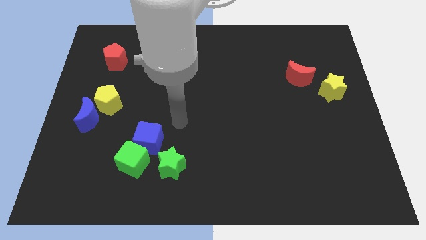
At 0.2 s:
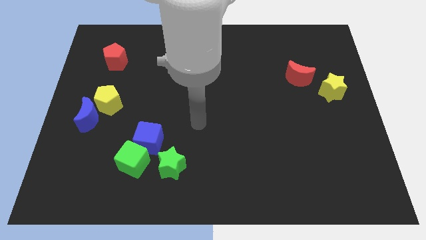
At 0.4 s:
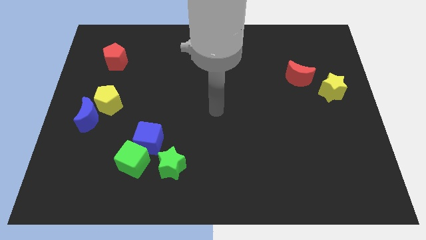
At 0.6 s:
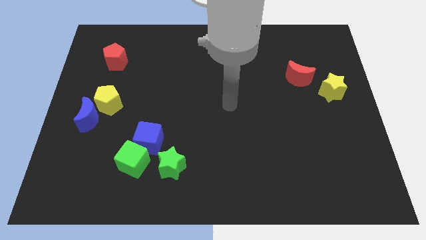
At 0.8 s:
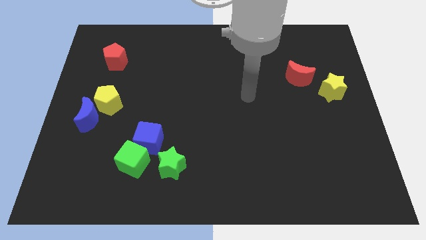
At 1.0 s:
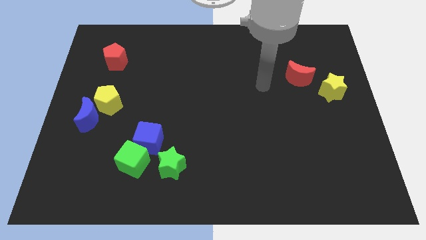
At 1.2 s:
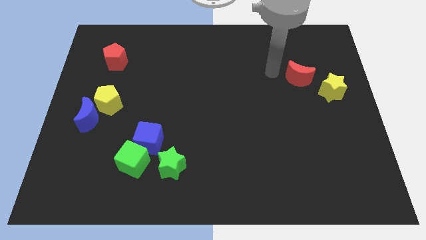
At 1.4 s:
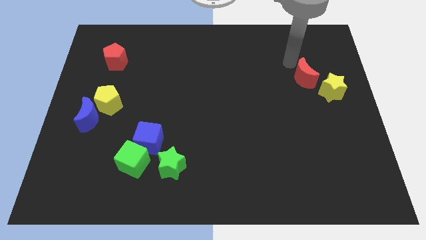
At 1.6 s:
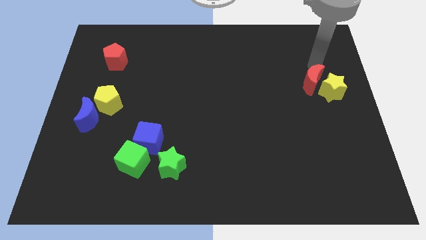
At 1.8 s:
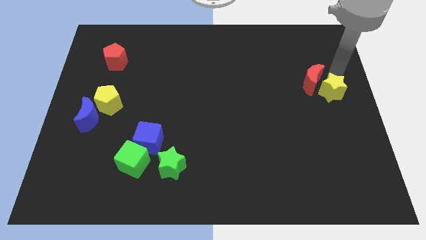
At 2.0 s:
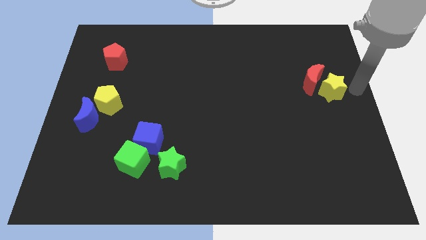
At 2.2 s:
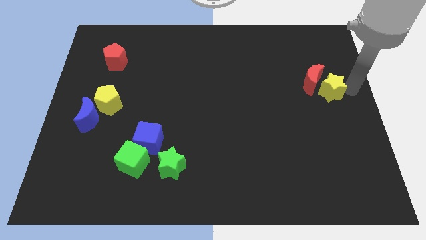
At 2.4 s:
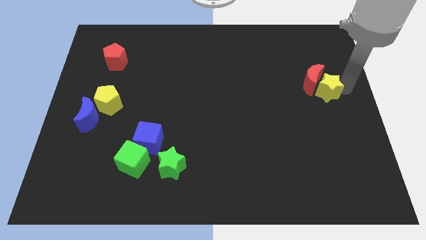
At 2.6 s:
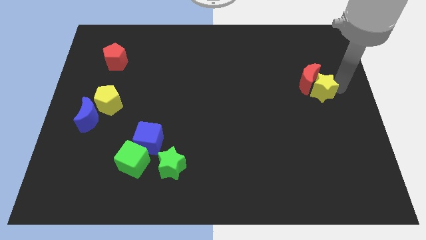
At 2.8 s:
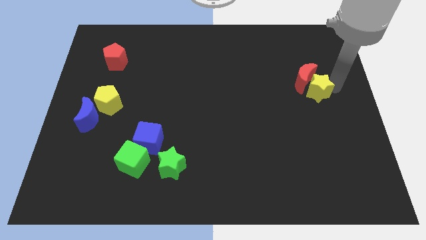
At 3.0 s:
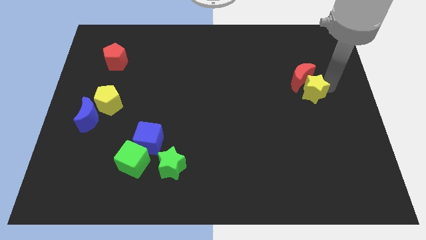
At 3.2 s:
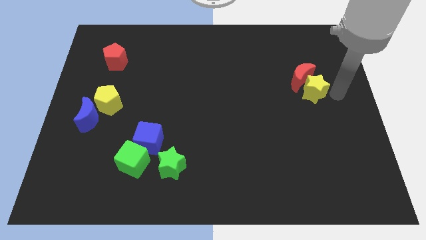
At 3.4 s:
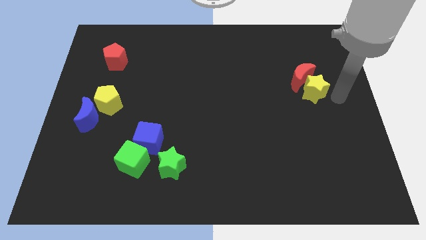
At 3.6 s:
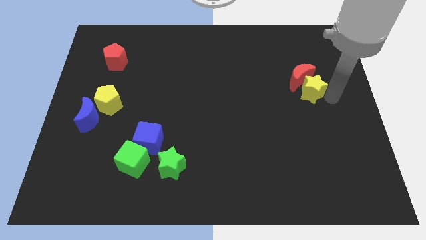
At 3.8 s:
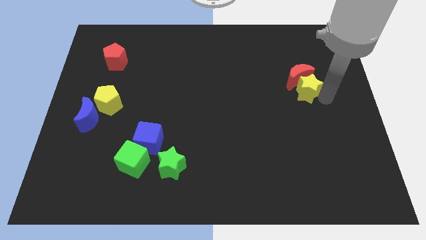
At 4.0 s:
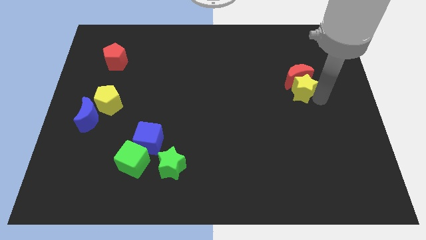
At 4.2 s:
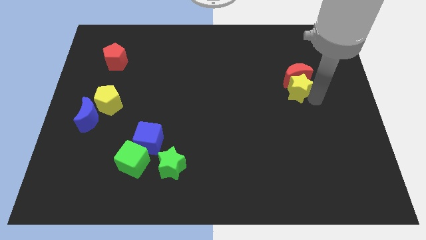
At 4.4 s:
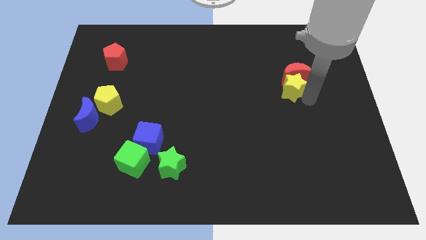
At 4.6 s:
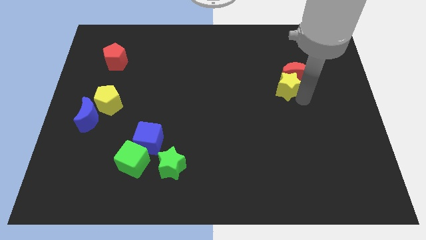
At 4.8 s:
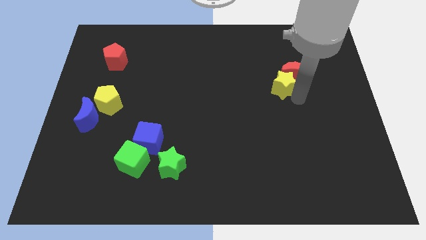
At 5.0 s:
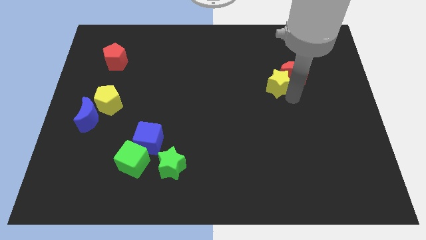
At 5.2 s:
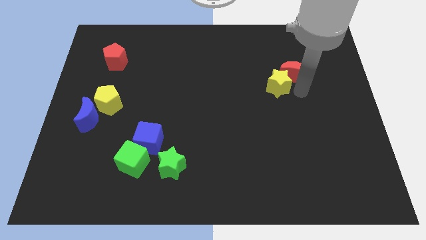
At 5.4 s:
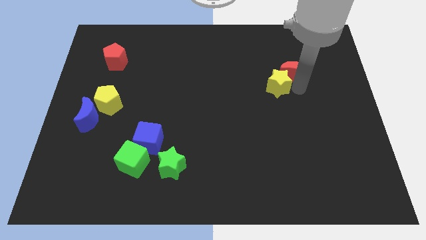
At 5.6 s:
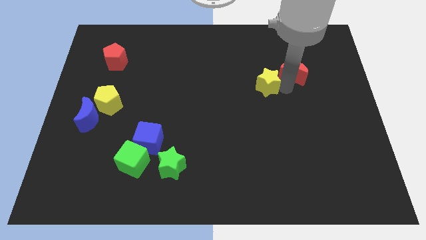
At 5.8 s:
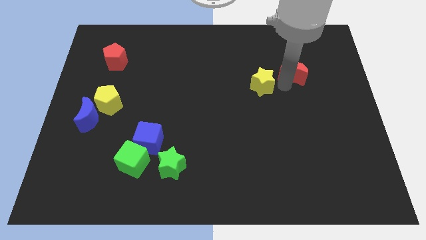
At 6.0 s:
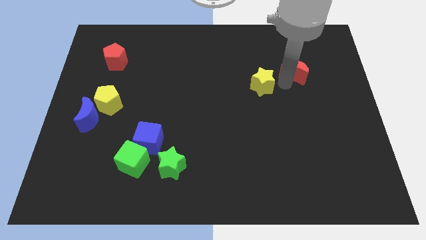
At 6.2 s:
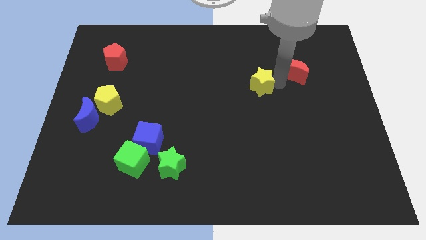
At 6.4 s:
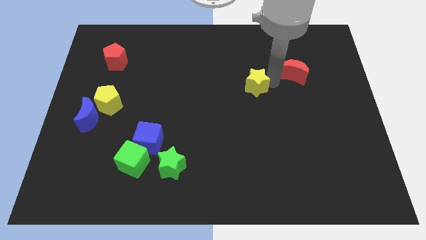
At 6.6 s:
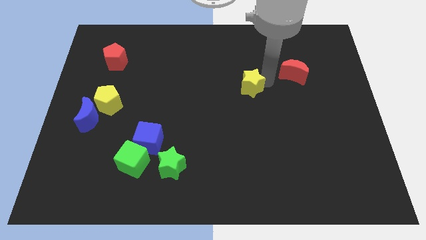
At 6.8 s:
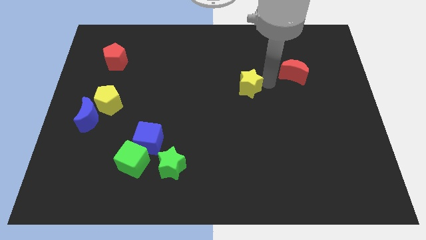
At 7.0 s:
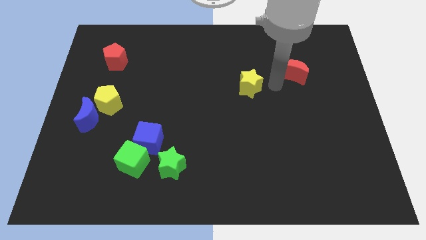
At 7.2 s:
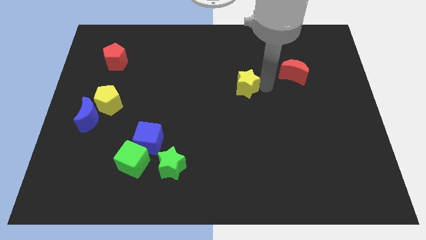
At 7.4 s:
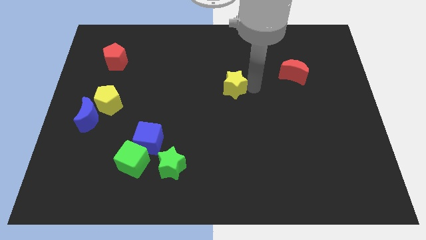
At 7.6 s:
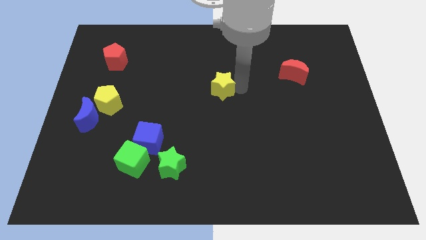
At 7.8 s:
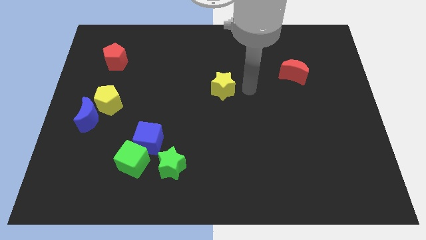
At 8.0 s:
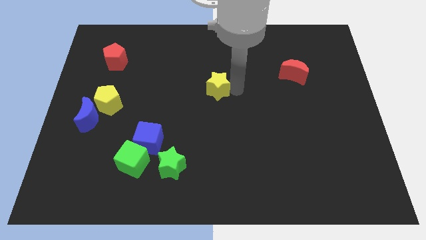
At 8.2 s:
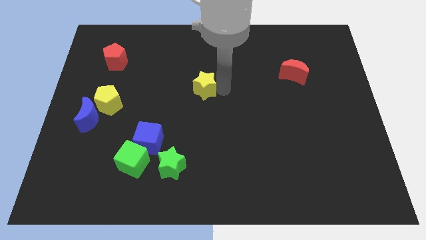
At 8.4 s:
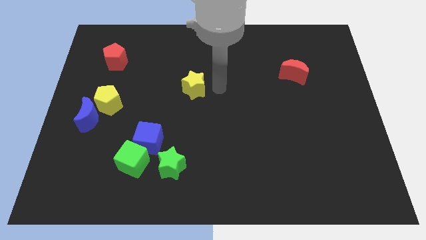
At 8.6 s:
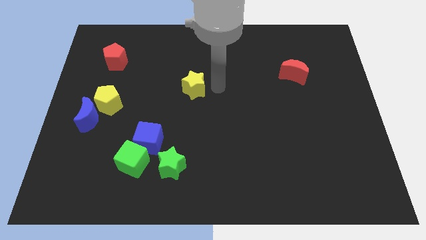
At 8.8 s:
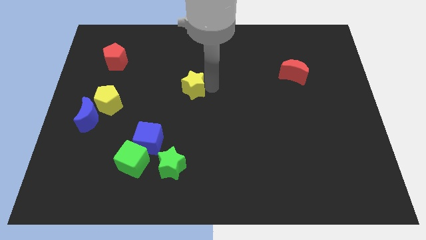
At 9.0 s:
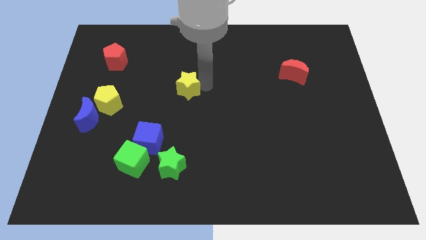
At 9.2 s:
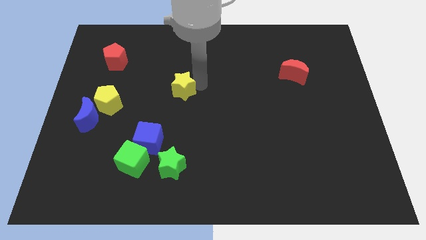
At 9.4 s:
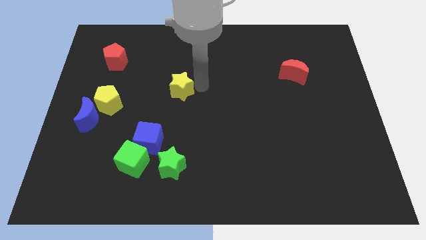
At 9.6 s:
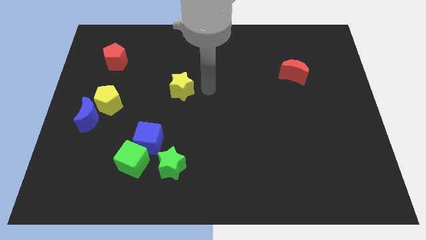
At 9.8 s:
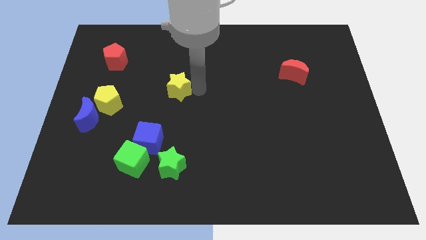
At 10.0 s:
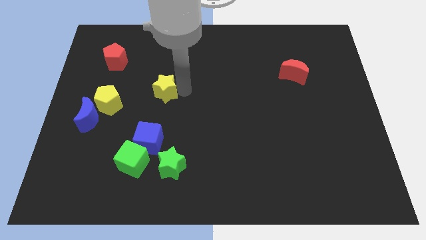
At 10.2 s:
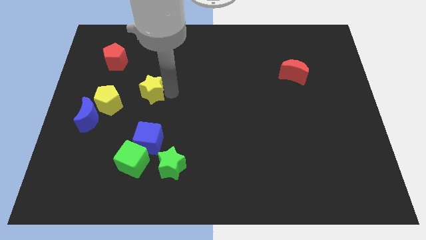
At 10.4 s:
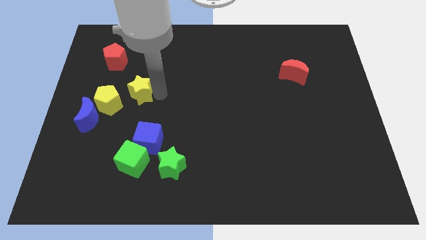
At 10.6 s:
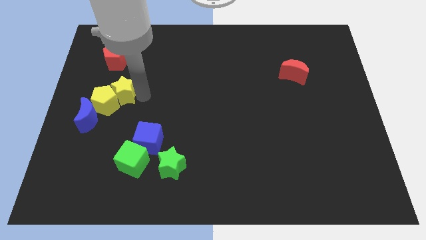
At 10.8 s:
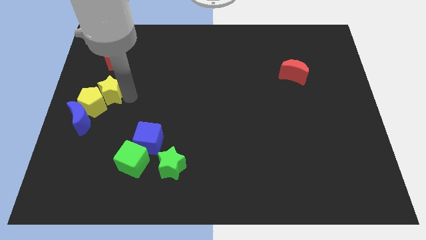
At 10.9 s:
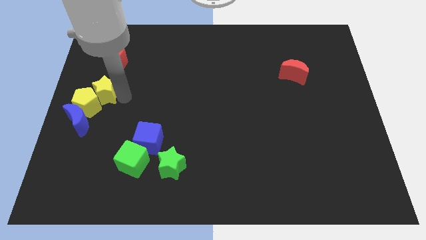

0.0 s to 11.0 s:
put the yellow star to the center left

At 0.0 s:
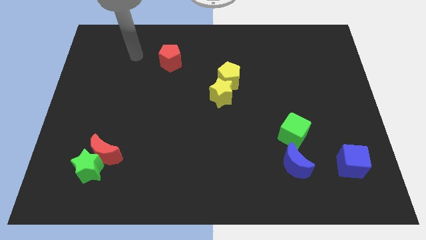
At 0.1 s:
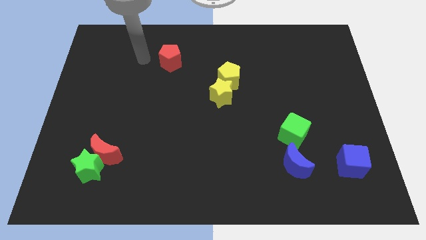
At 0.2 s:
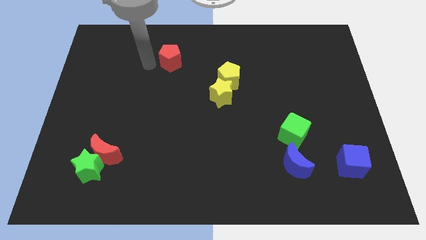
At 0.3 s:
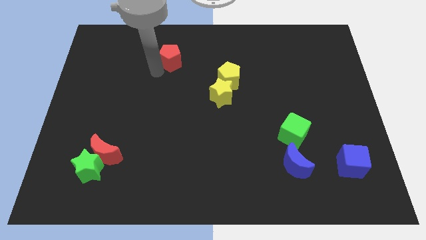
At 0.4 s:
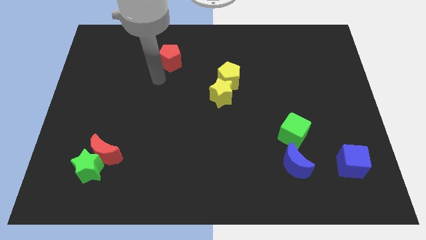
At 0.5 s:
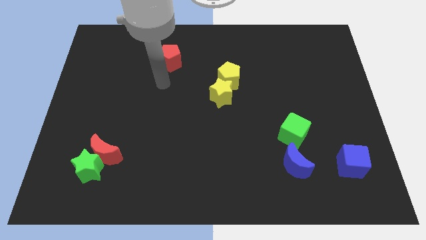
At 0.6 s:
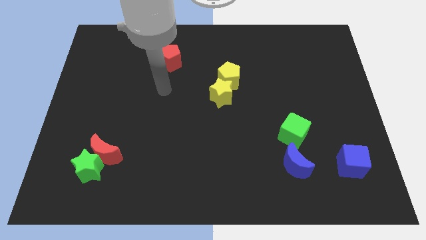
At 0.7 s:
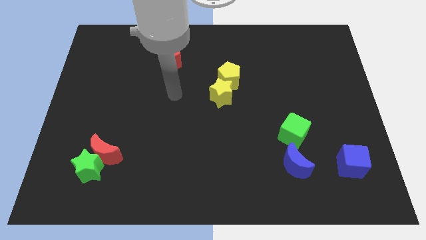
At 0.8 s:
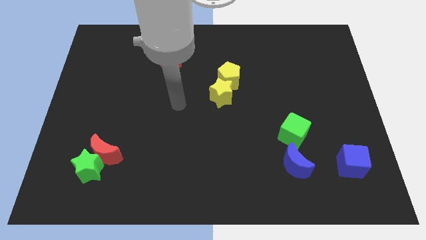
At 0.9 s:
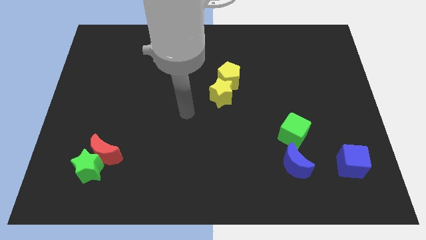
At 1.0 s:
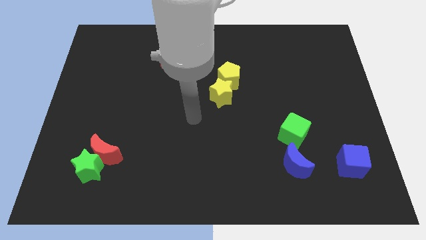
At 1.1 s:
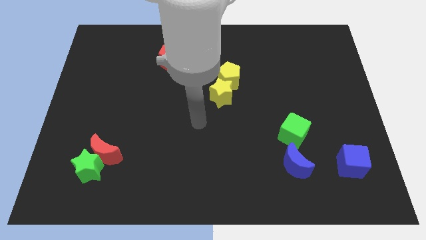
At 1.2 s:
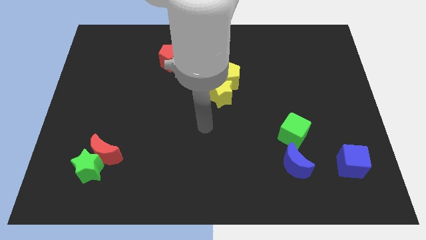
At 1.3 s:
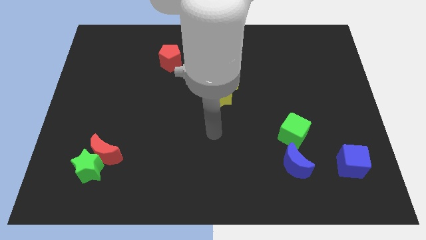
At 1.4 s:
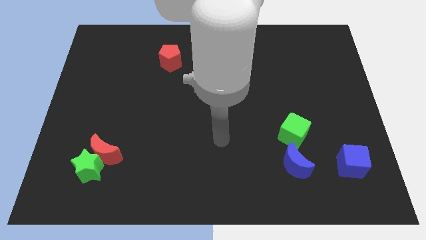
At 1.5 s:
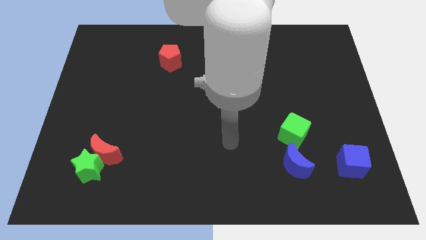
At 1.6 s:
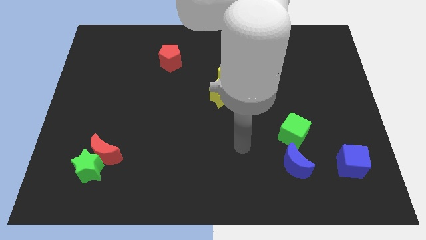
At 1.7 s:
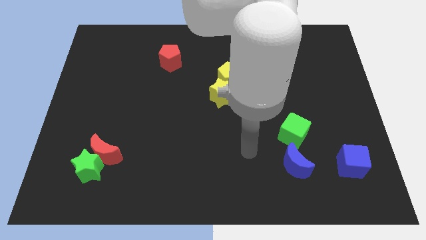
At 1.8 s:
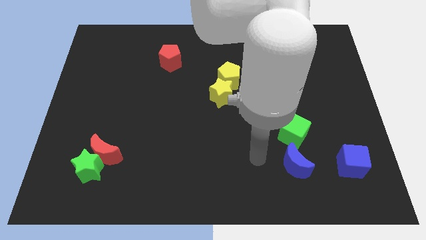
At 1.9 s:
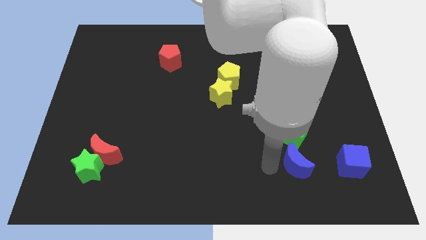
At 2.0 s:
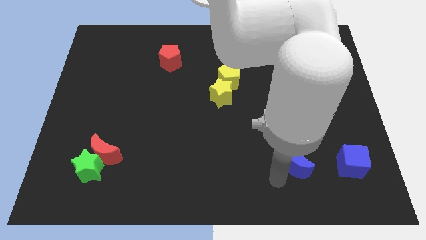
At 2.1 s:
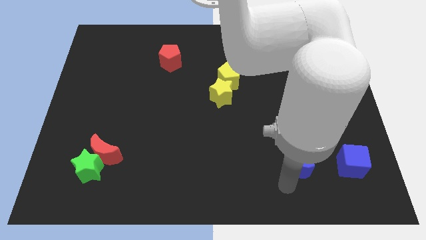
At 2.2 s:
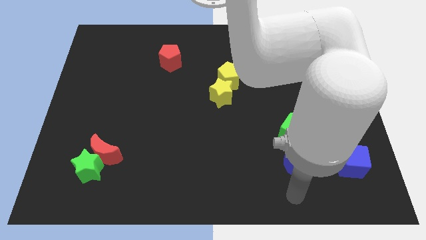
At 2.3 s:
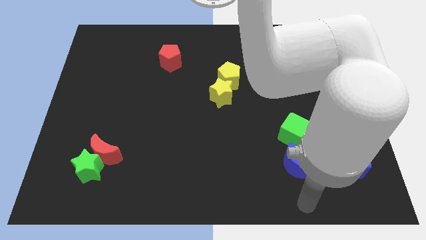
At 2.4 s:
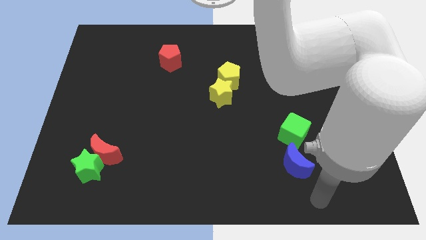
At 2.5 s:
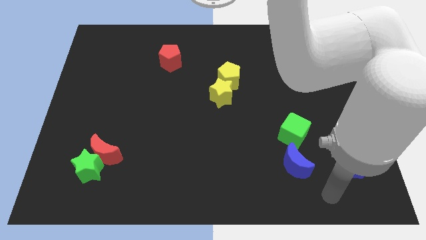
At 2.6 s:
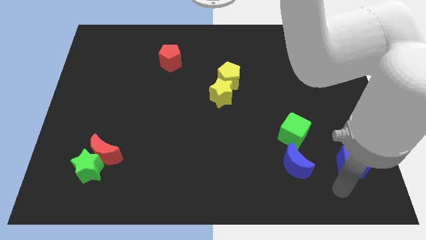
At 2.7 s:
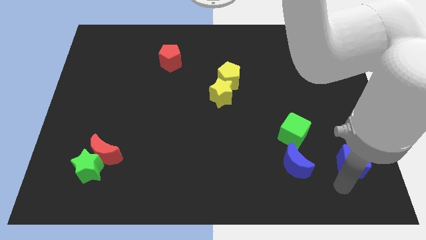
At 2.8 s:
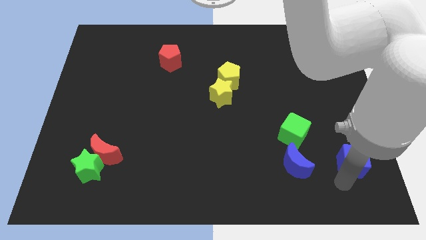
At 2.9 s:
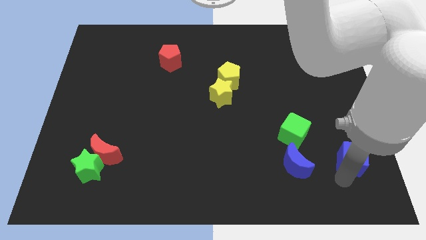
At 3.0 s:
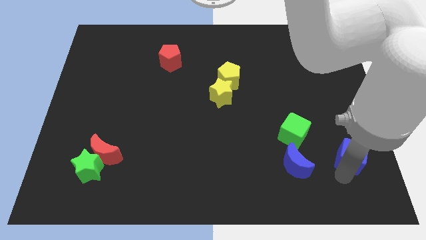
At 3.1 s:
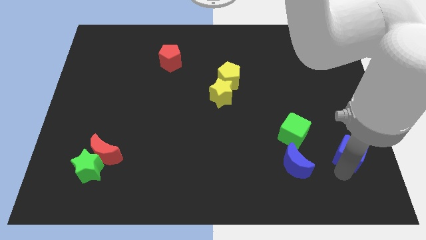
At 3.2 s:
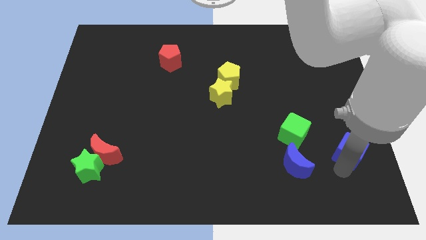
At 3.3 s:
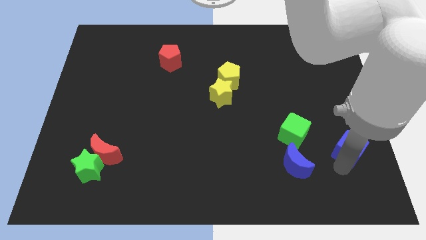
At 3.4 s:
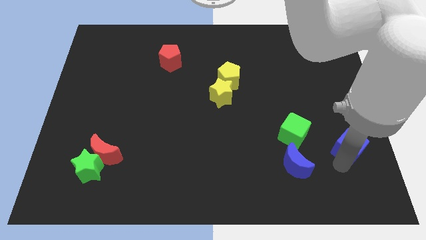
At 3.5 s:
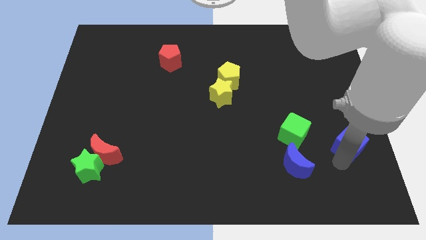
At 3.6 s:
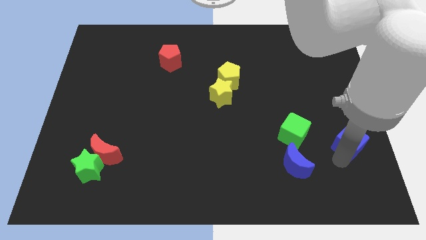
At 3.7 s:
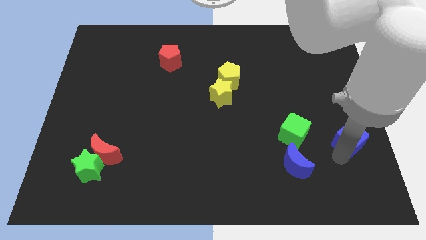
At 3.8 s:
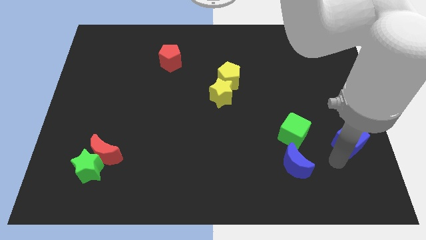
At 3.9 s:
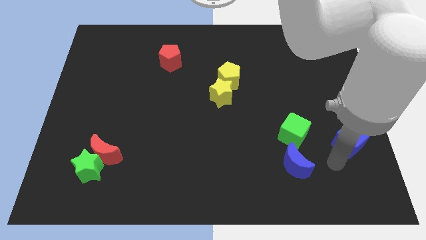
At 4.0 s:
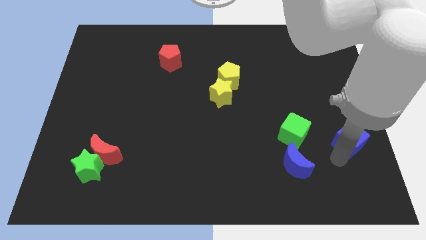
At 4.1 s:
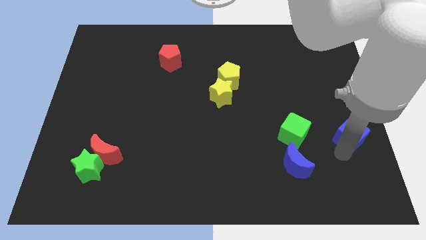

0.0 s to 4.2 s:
push the blue cube to the right side
